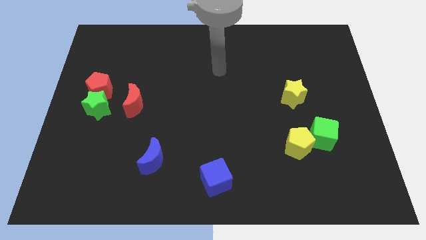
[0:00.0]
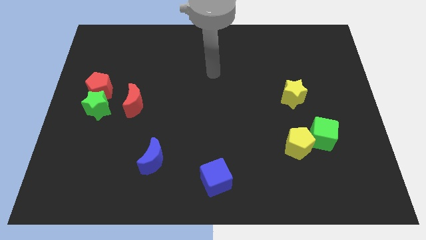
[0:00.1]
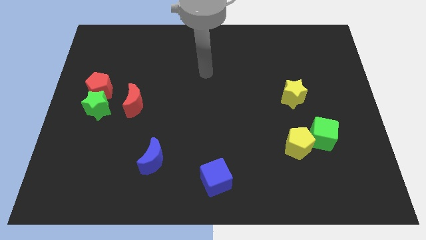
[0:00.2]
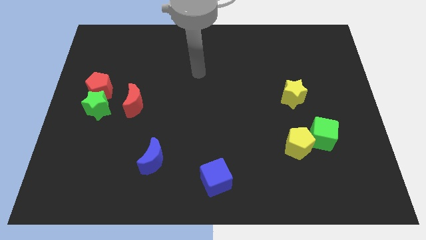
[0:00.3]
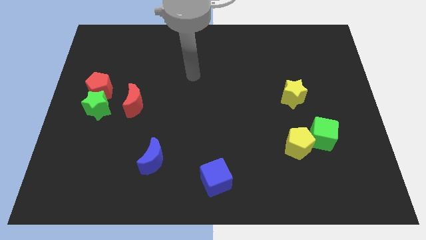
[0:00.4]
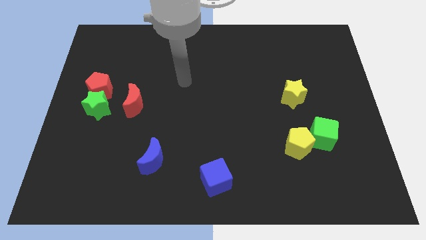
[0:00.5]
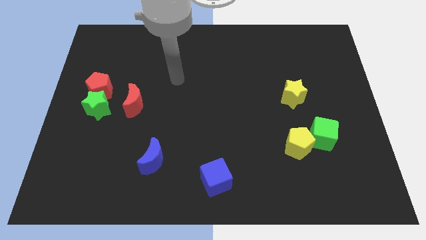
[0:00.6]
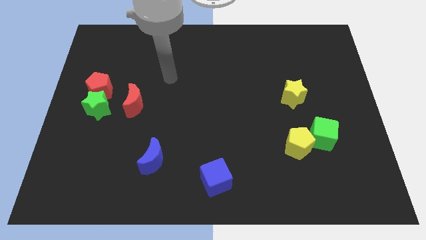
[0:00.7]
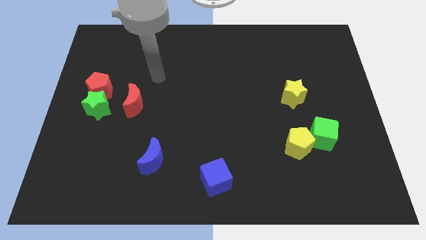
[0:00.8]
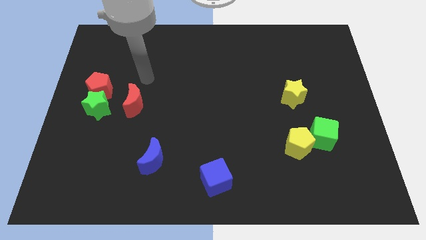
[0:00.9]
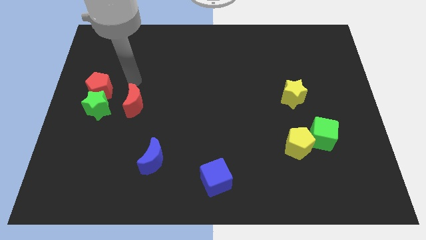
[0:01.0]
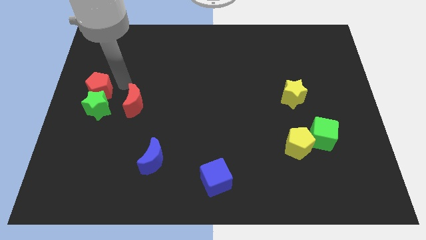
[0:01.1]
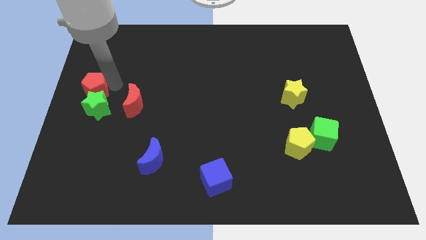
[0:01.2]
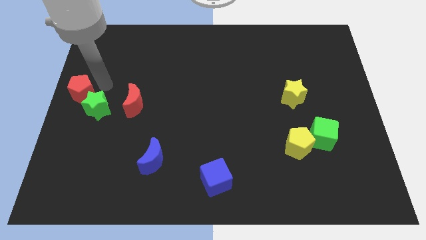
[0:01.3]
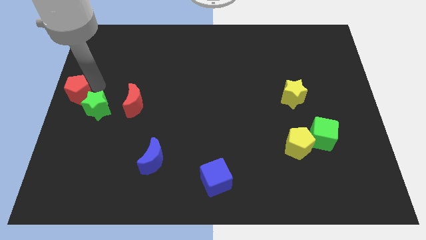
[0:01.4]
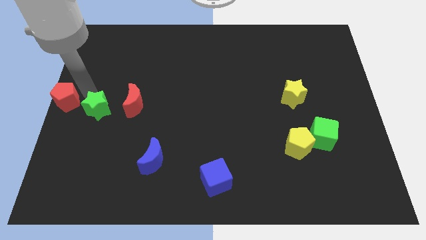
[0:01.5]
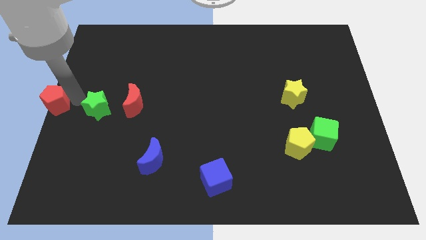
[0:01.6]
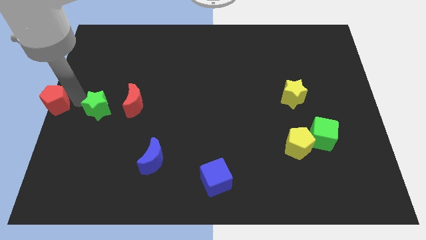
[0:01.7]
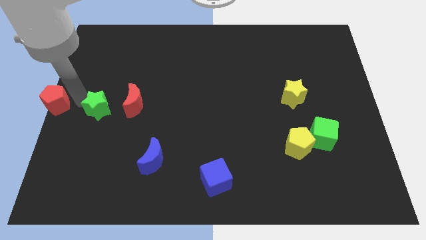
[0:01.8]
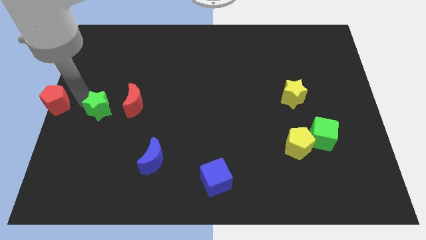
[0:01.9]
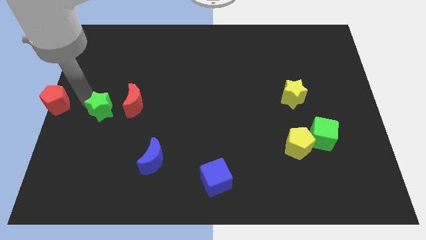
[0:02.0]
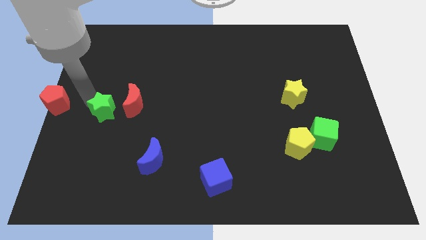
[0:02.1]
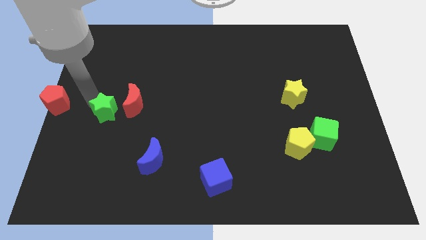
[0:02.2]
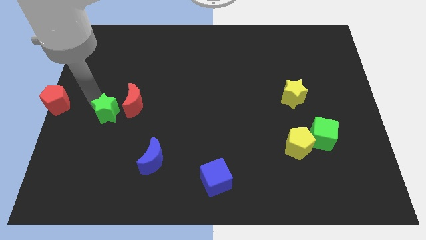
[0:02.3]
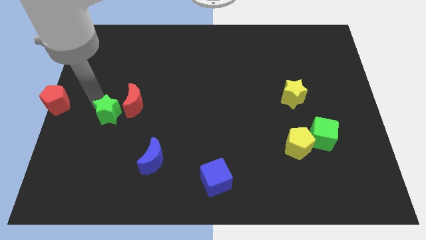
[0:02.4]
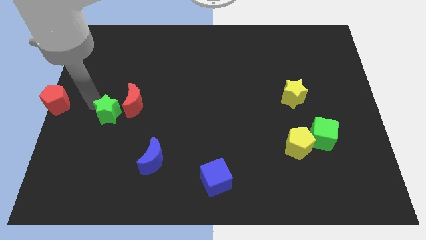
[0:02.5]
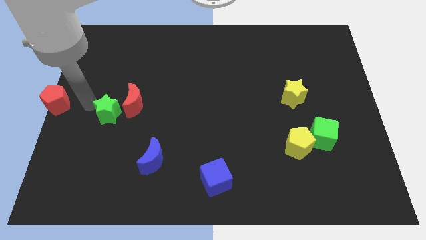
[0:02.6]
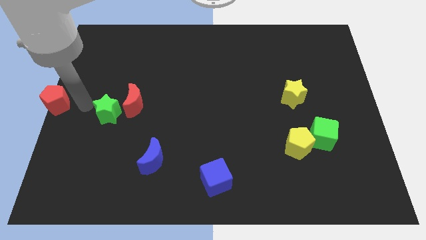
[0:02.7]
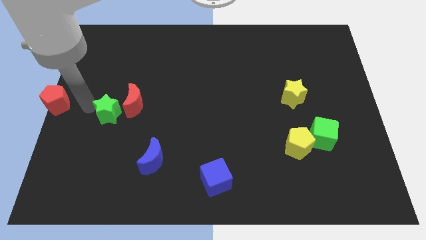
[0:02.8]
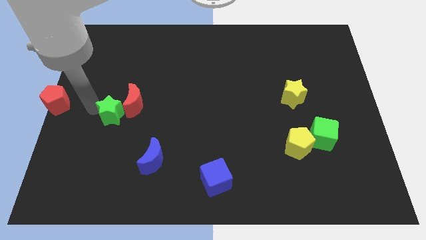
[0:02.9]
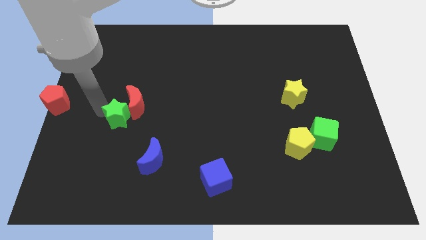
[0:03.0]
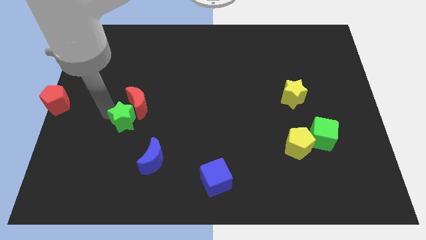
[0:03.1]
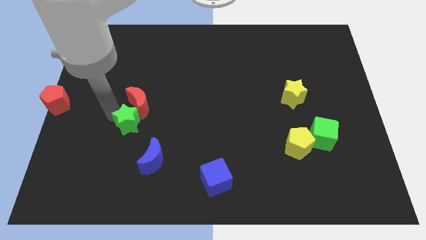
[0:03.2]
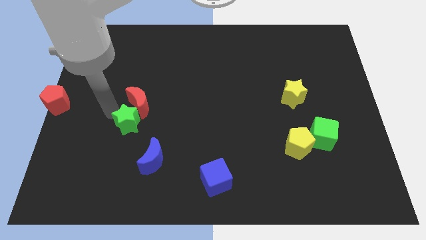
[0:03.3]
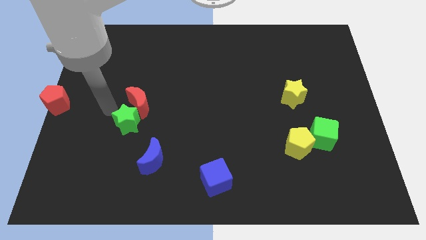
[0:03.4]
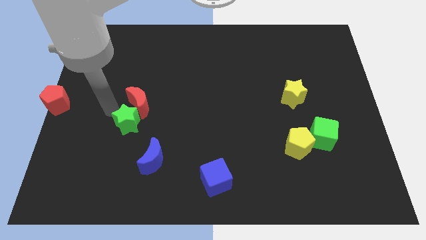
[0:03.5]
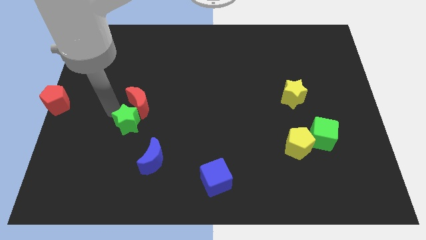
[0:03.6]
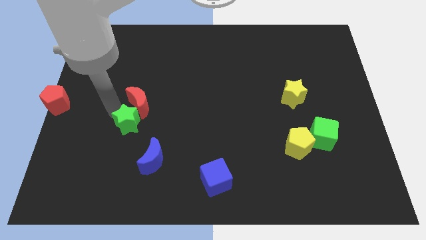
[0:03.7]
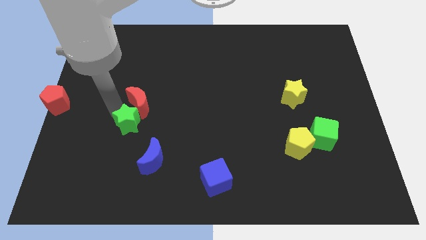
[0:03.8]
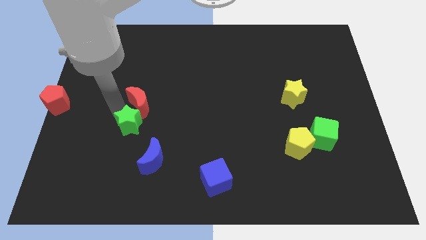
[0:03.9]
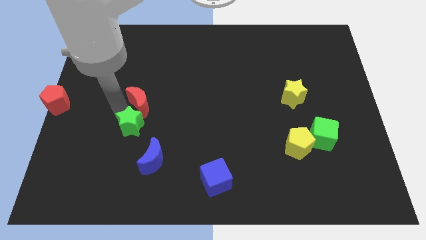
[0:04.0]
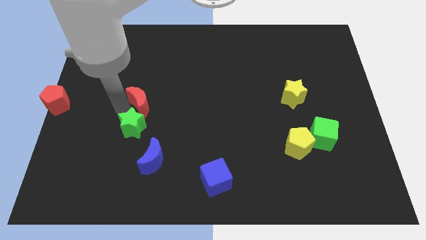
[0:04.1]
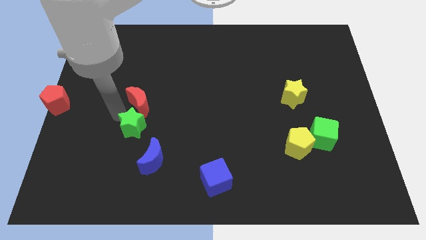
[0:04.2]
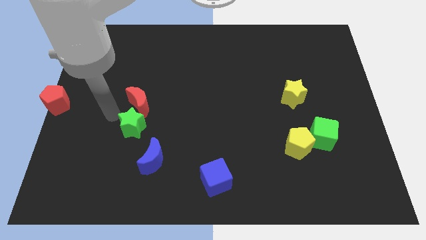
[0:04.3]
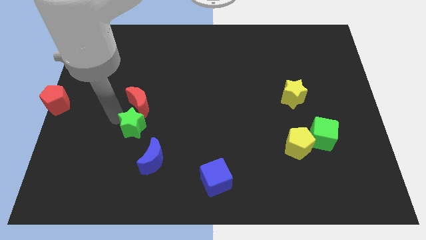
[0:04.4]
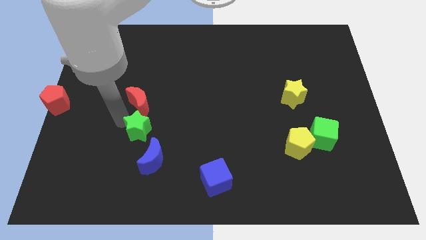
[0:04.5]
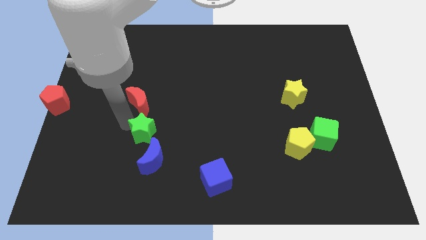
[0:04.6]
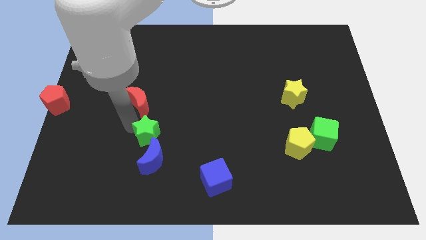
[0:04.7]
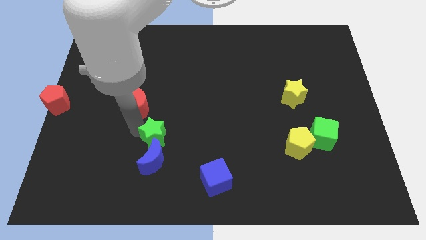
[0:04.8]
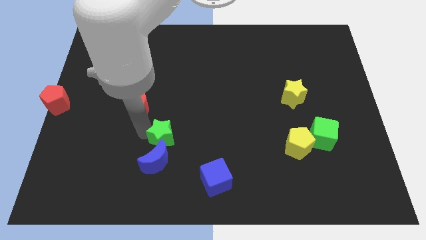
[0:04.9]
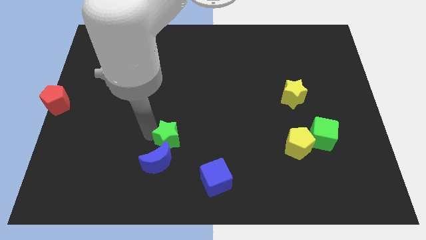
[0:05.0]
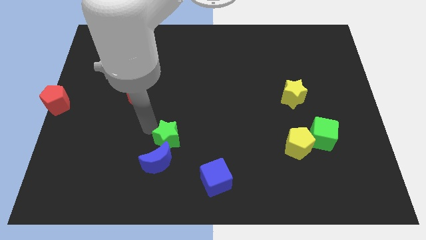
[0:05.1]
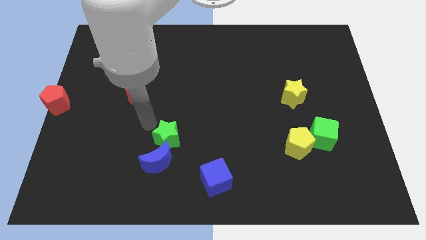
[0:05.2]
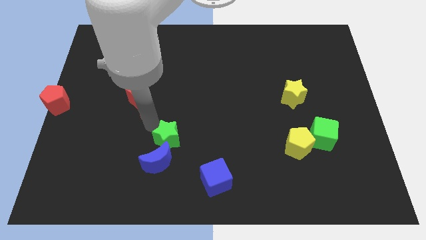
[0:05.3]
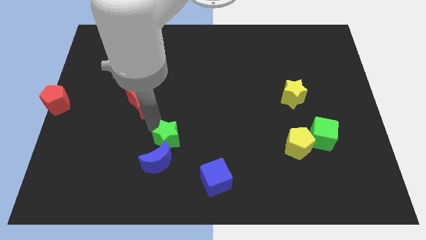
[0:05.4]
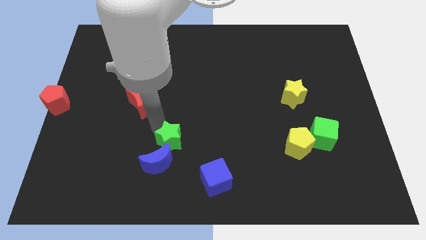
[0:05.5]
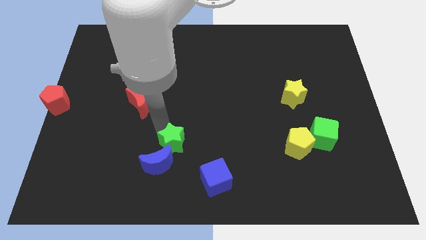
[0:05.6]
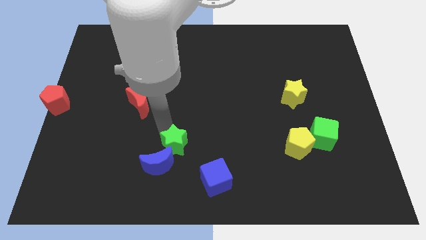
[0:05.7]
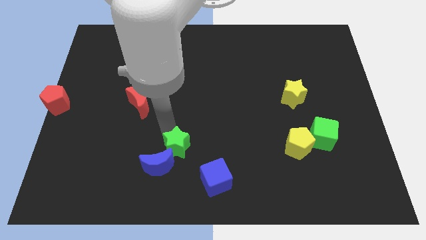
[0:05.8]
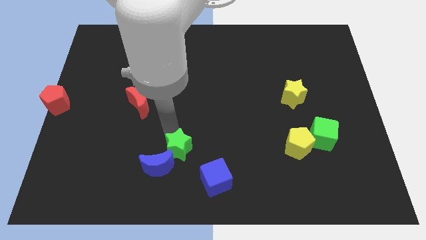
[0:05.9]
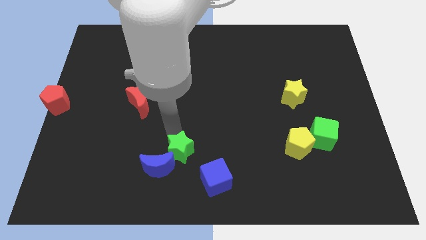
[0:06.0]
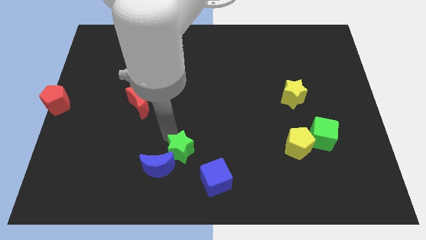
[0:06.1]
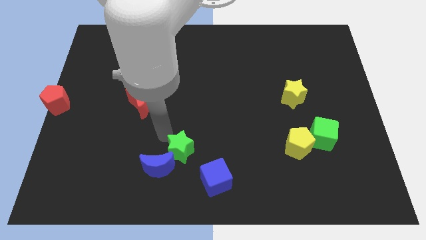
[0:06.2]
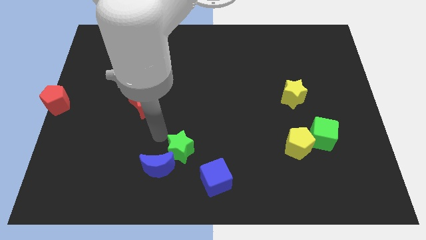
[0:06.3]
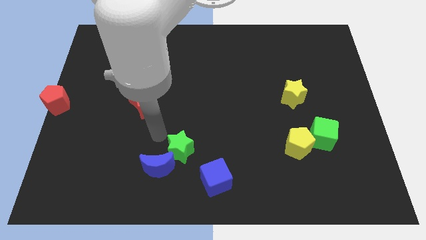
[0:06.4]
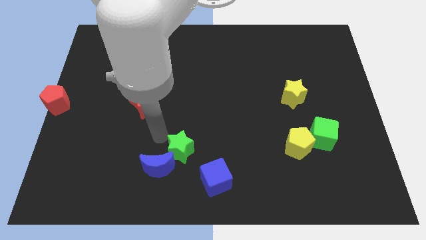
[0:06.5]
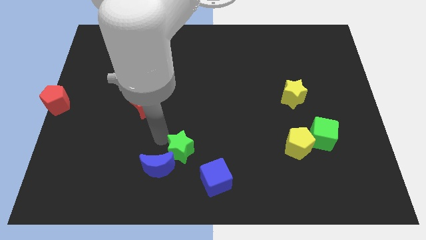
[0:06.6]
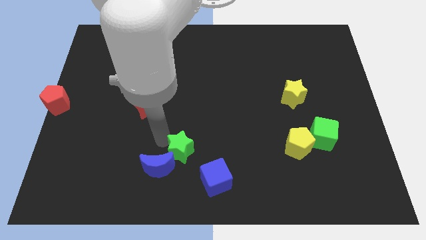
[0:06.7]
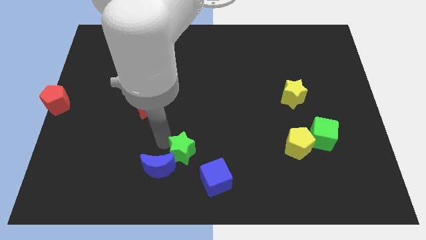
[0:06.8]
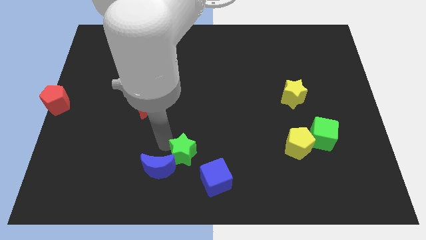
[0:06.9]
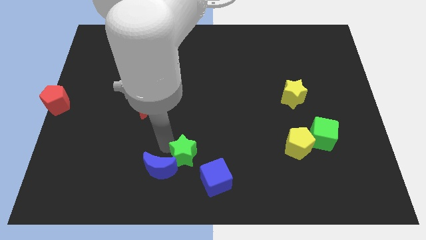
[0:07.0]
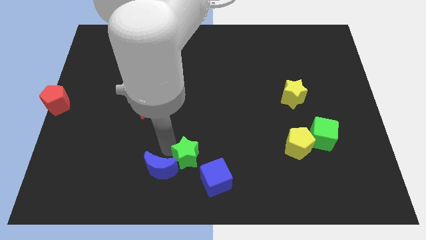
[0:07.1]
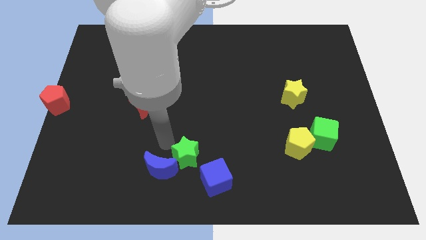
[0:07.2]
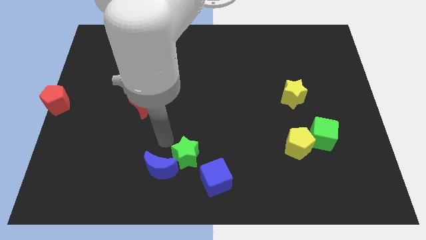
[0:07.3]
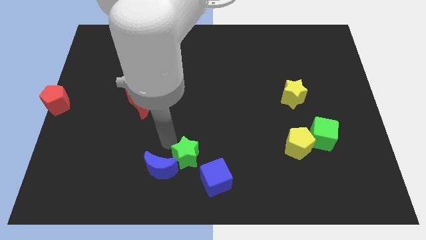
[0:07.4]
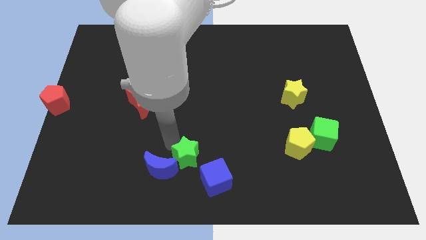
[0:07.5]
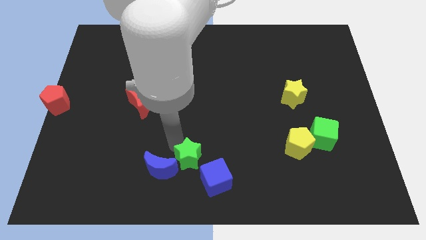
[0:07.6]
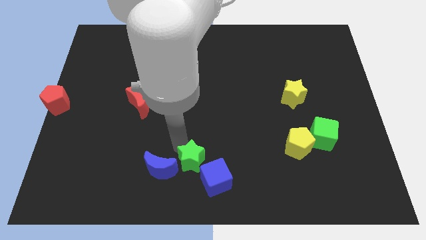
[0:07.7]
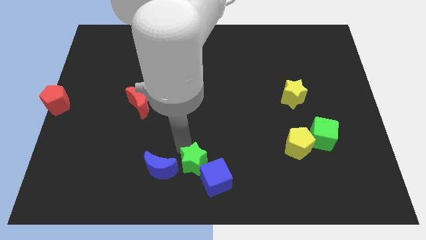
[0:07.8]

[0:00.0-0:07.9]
put the green star to the blue cube
